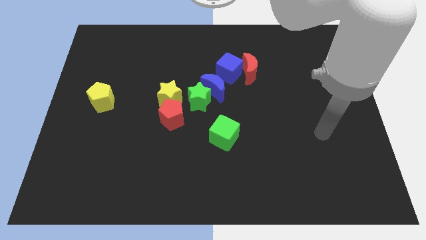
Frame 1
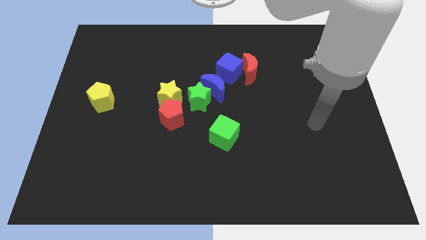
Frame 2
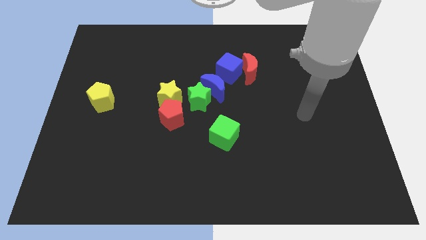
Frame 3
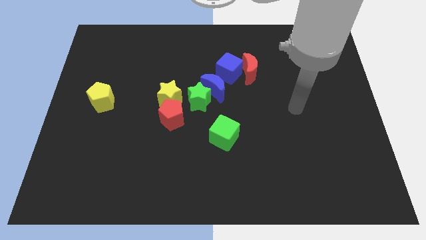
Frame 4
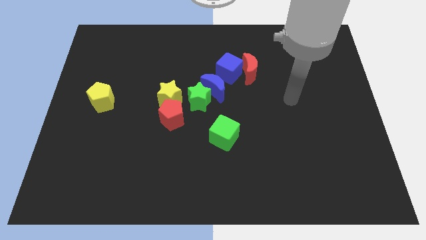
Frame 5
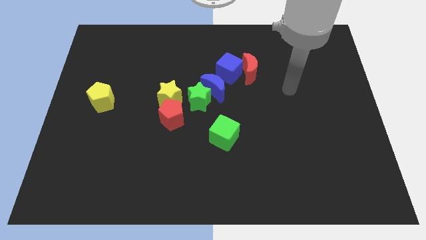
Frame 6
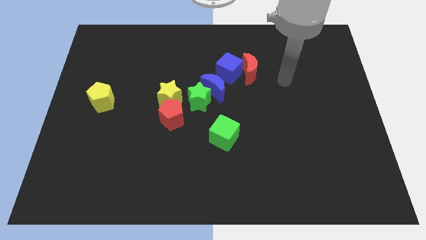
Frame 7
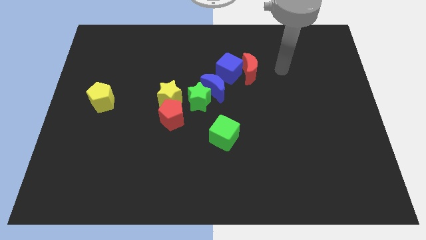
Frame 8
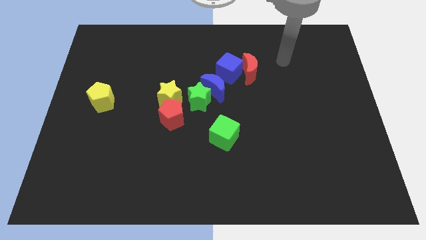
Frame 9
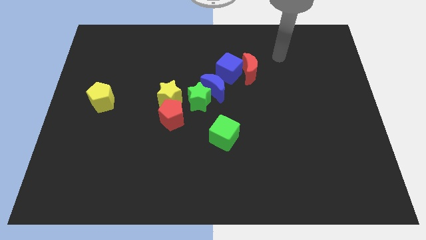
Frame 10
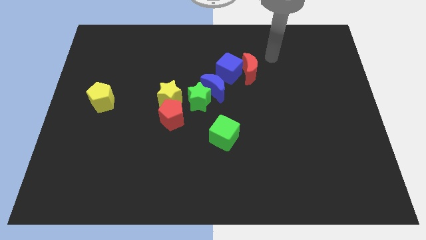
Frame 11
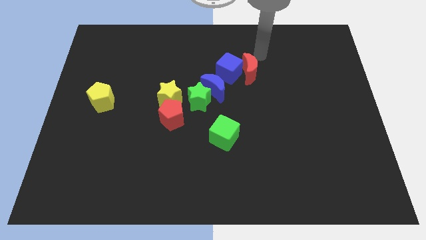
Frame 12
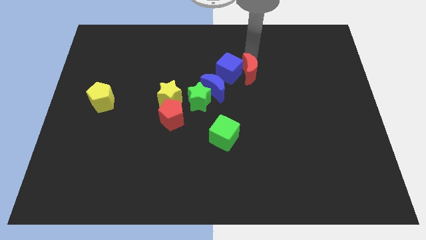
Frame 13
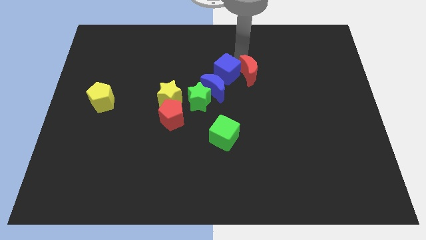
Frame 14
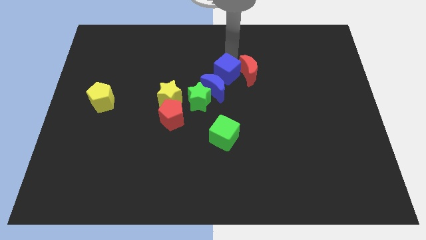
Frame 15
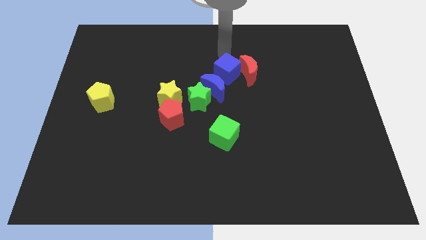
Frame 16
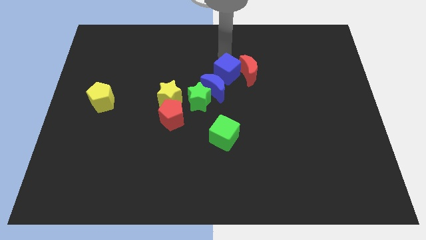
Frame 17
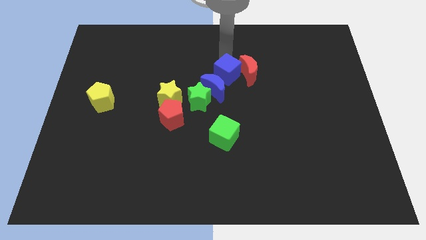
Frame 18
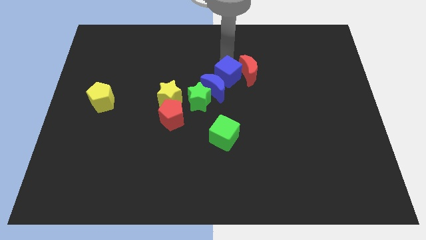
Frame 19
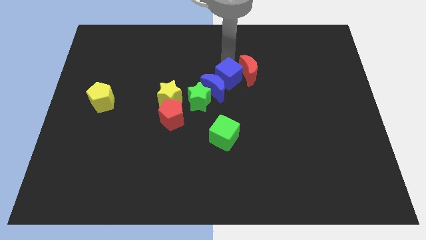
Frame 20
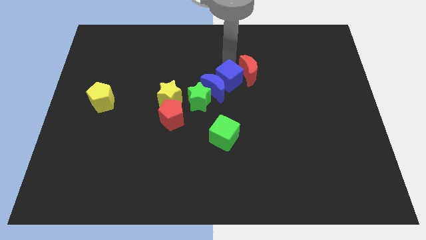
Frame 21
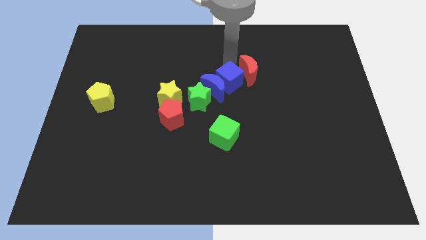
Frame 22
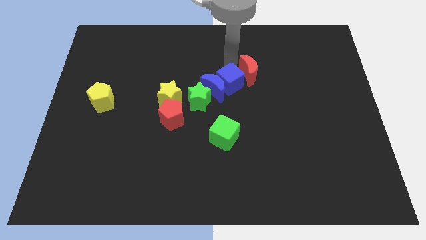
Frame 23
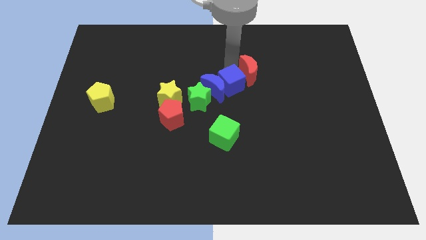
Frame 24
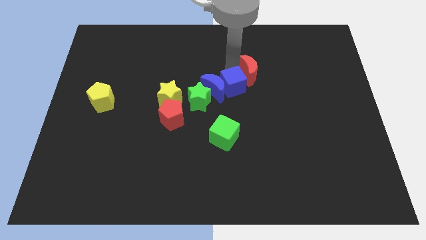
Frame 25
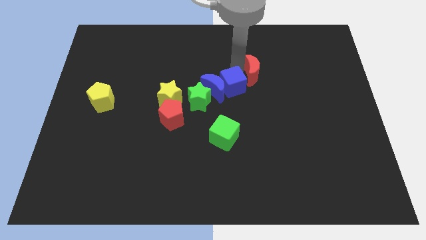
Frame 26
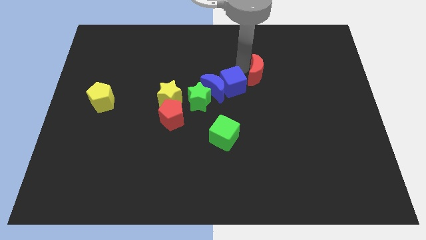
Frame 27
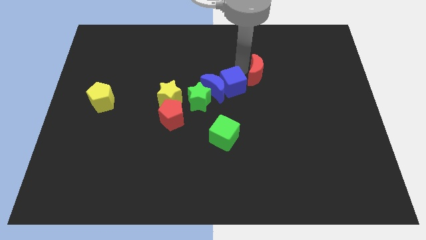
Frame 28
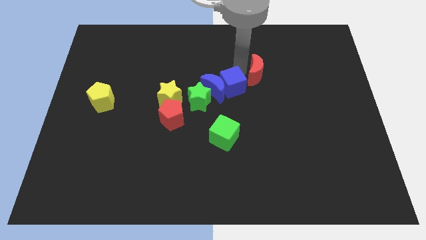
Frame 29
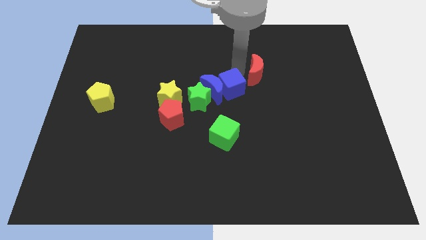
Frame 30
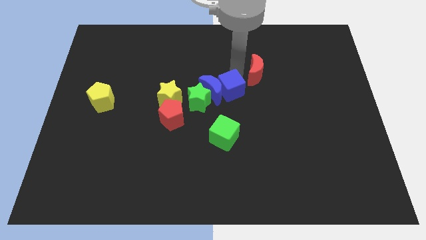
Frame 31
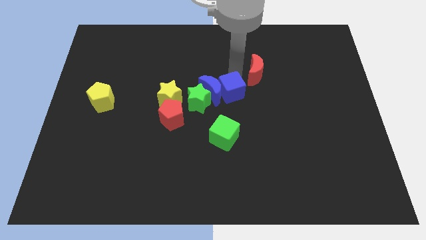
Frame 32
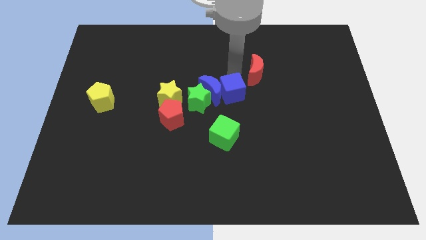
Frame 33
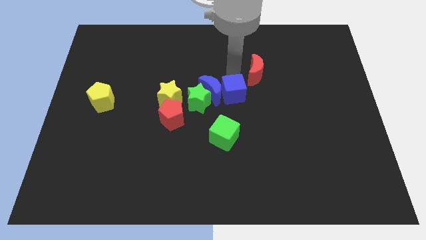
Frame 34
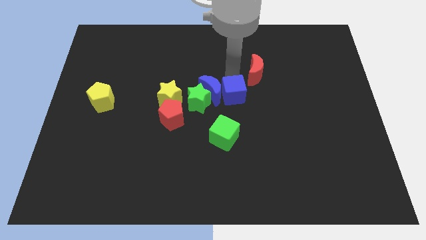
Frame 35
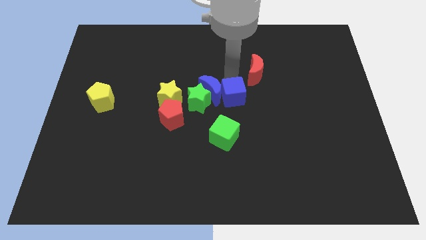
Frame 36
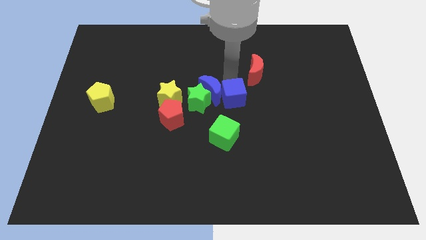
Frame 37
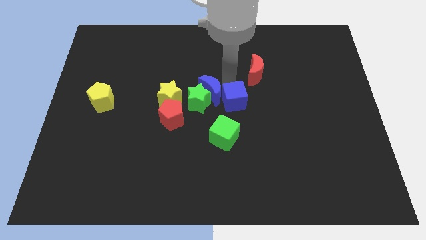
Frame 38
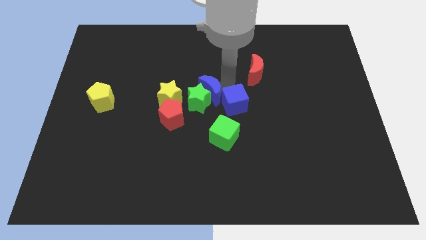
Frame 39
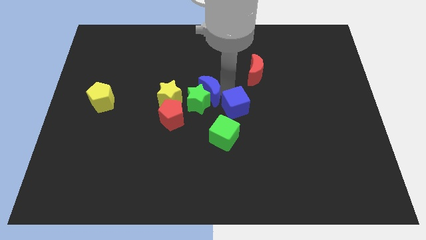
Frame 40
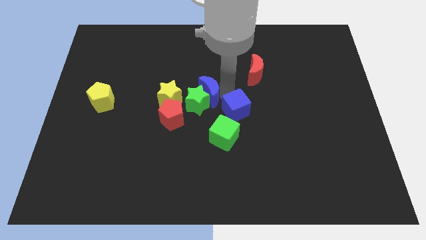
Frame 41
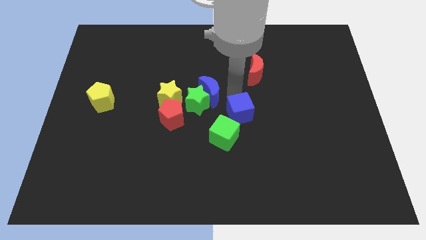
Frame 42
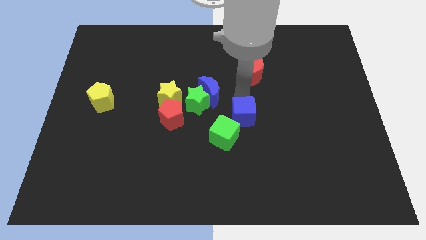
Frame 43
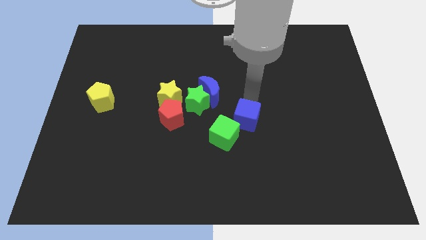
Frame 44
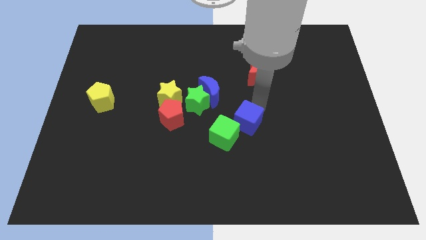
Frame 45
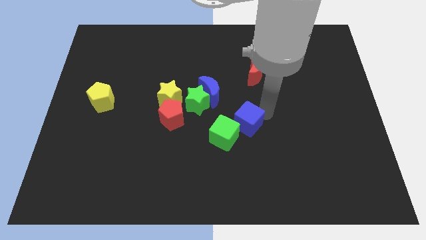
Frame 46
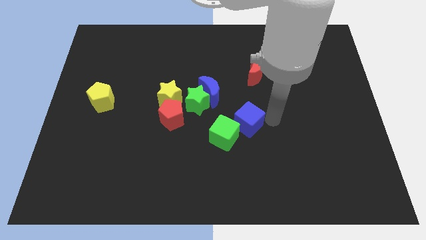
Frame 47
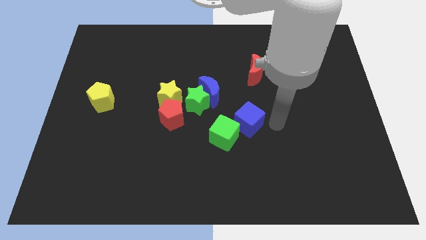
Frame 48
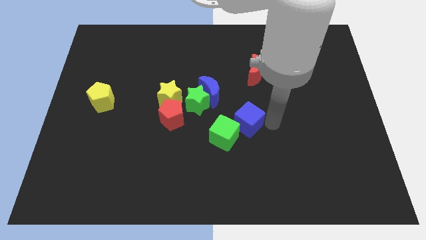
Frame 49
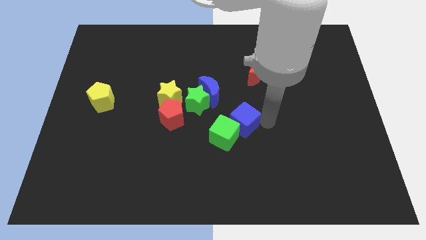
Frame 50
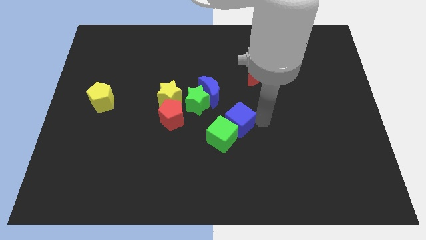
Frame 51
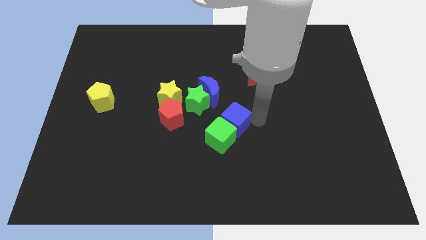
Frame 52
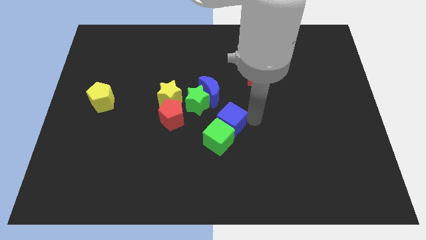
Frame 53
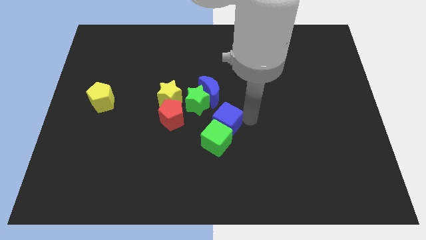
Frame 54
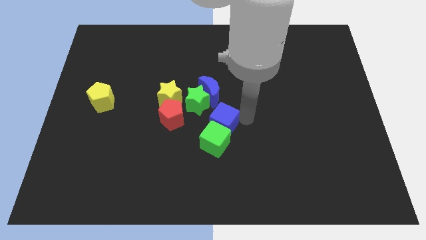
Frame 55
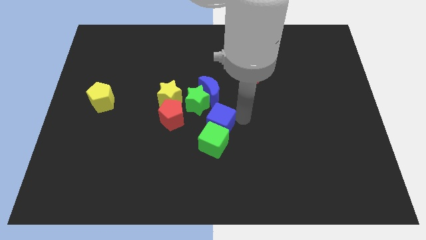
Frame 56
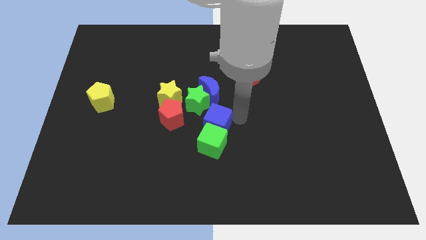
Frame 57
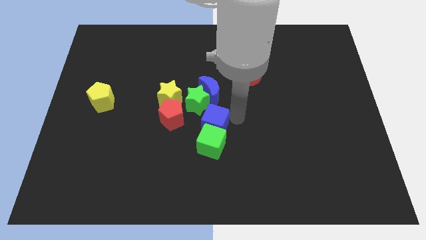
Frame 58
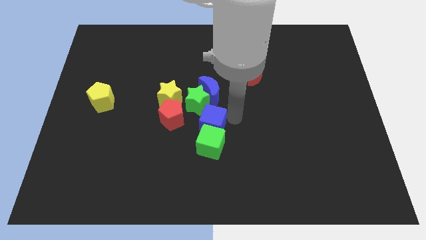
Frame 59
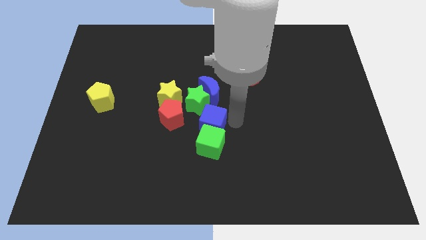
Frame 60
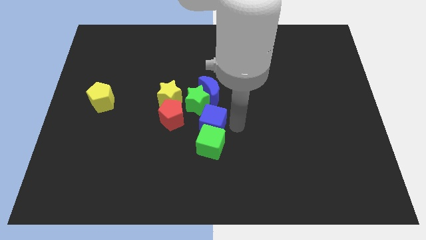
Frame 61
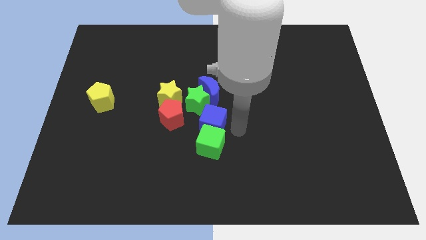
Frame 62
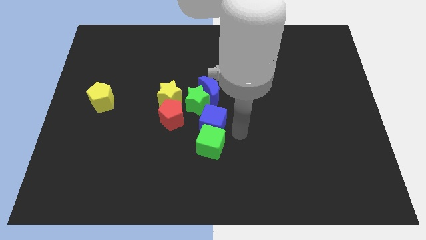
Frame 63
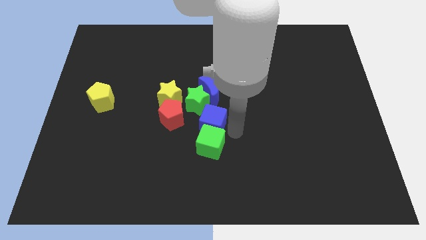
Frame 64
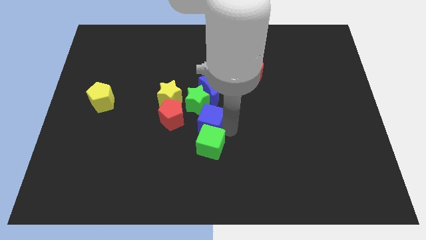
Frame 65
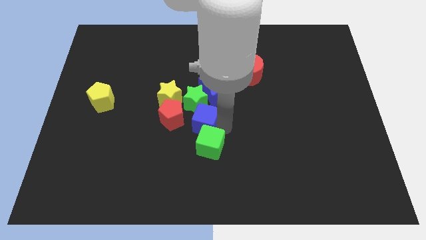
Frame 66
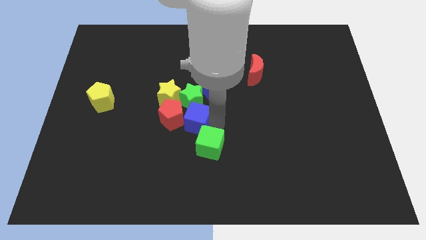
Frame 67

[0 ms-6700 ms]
slide the blue cube next to the red pentagon

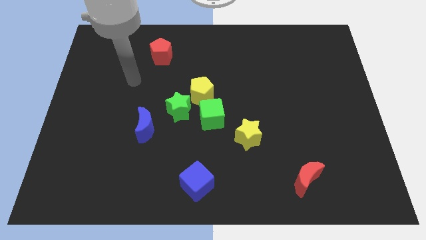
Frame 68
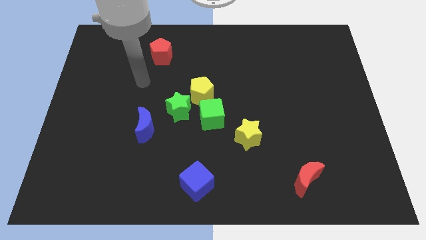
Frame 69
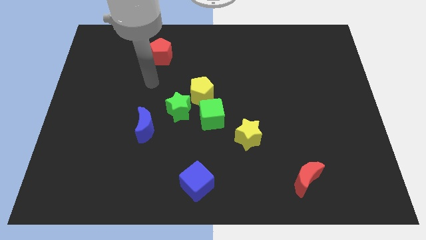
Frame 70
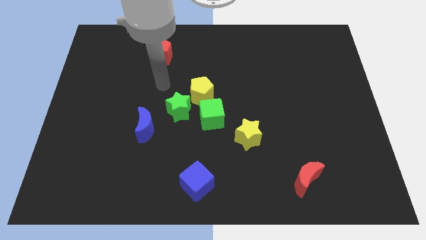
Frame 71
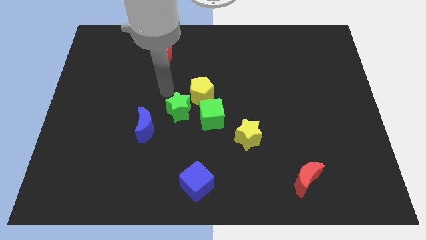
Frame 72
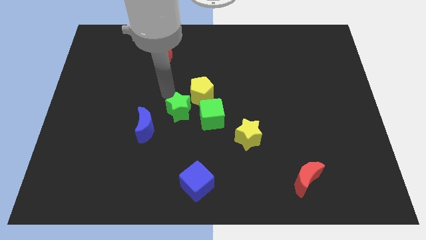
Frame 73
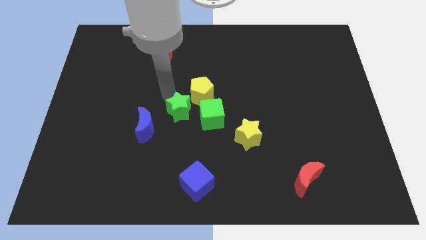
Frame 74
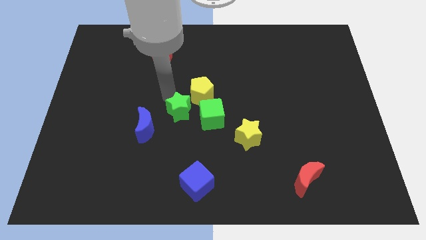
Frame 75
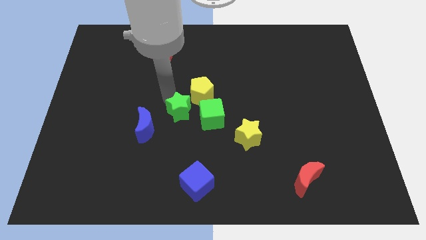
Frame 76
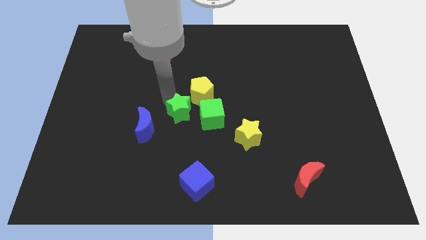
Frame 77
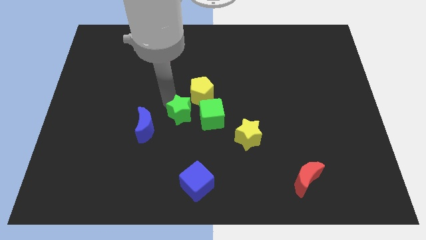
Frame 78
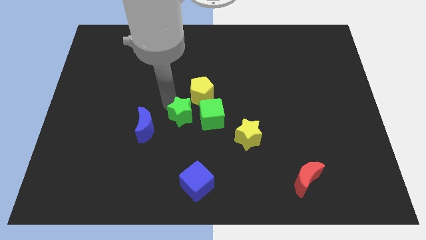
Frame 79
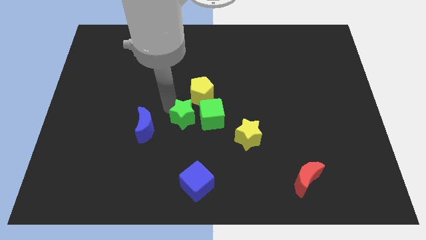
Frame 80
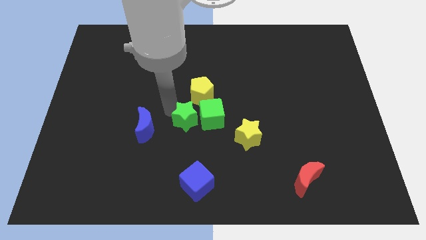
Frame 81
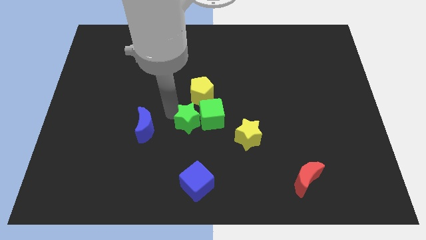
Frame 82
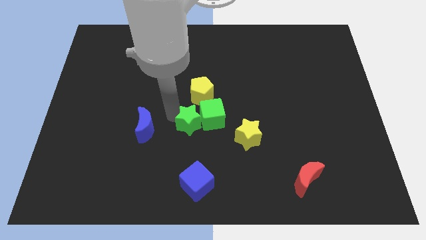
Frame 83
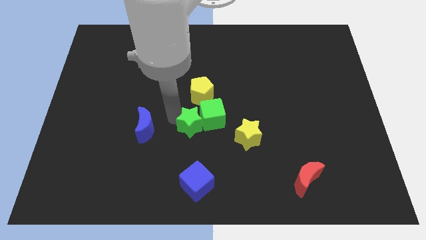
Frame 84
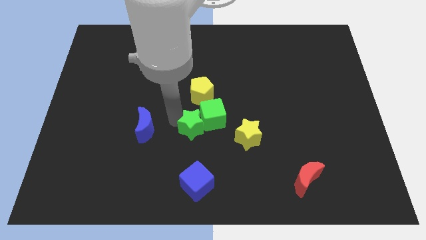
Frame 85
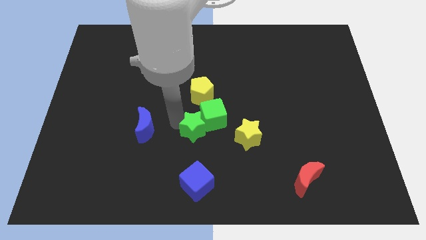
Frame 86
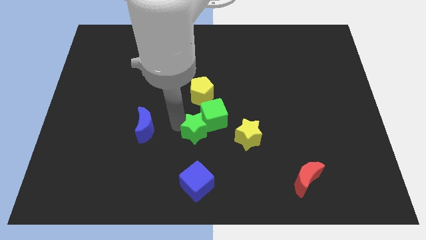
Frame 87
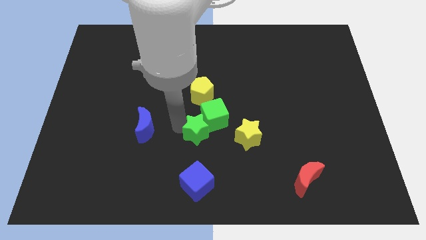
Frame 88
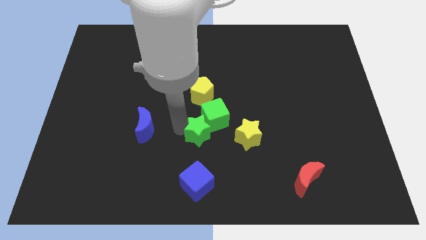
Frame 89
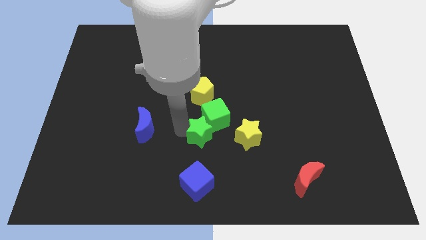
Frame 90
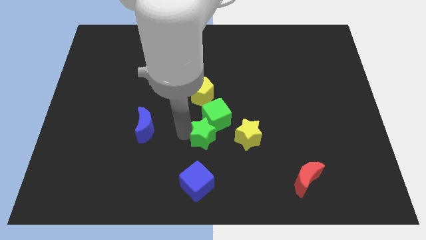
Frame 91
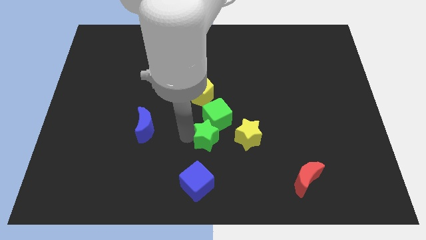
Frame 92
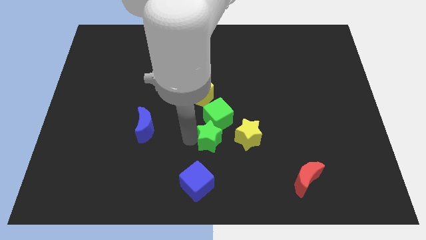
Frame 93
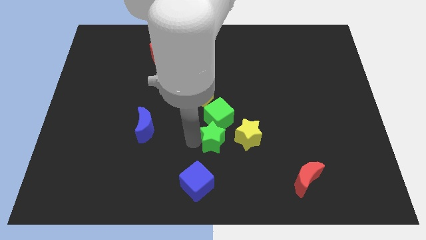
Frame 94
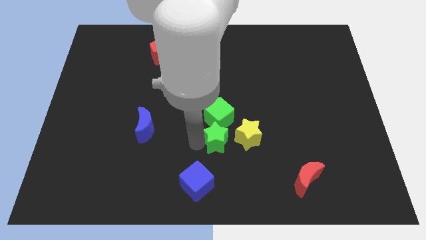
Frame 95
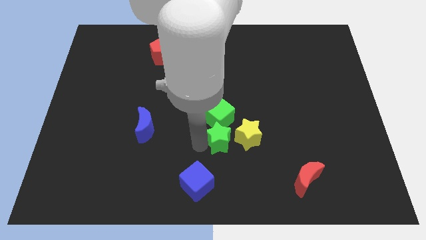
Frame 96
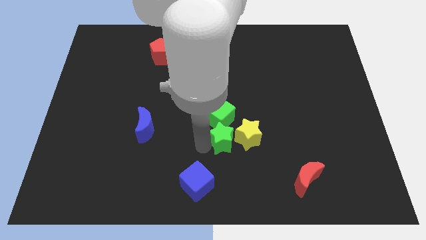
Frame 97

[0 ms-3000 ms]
push the green star next to the yellow star
